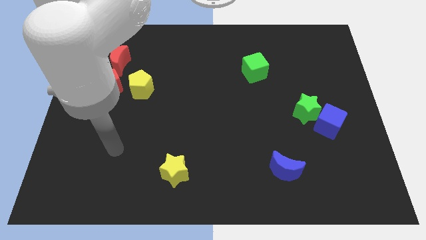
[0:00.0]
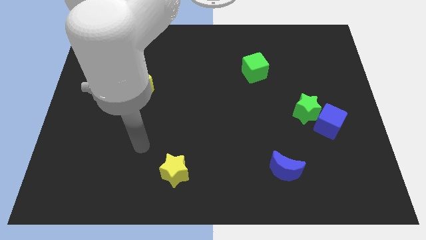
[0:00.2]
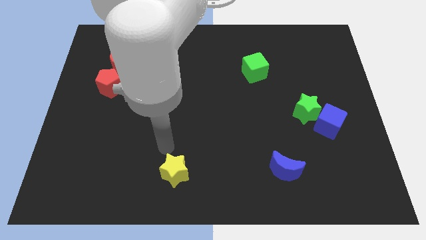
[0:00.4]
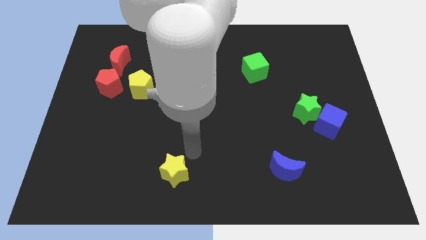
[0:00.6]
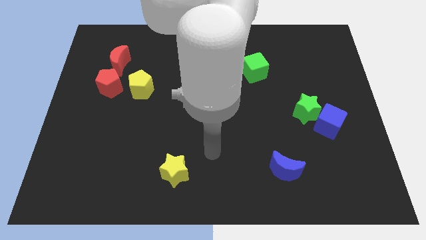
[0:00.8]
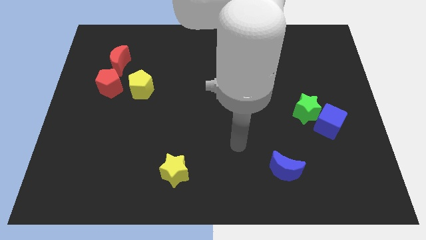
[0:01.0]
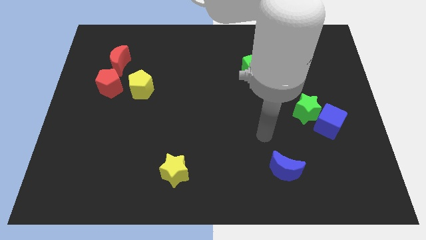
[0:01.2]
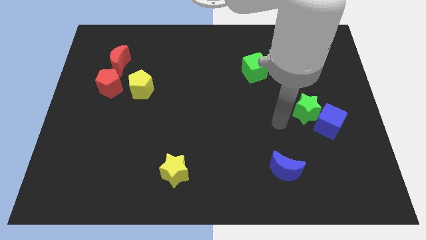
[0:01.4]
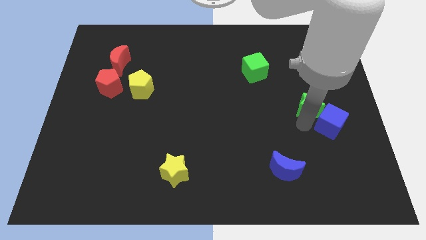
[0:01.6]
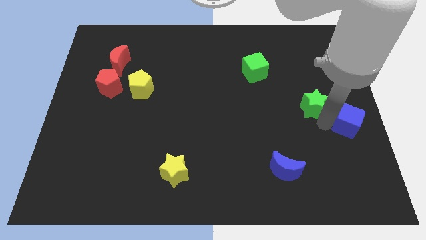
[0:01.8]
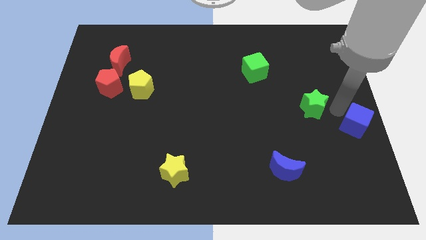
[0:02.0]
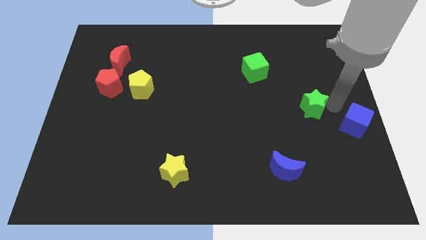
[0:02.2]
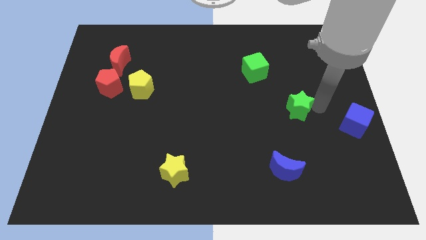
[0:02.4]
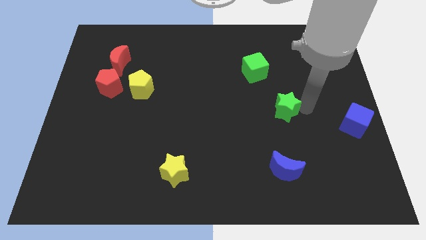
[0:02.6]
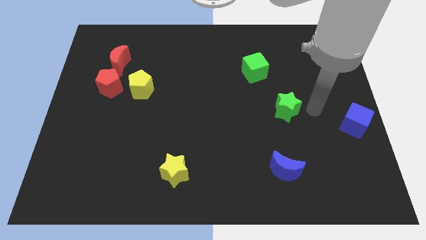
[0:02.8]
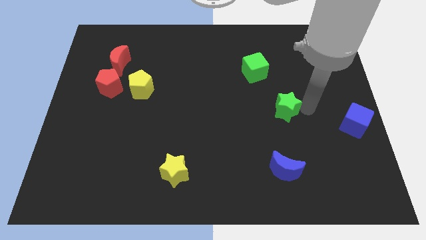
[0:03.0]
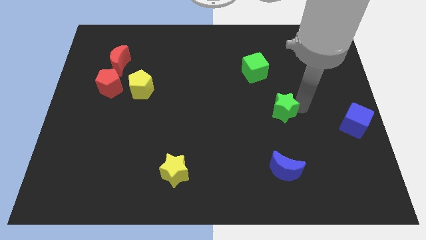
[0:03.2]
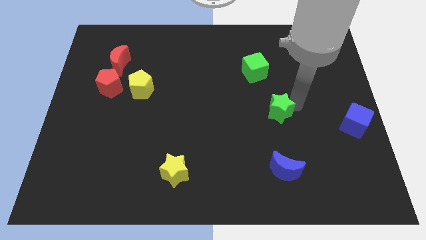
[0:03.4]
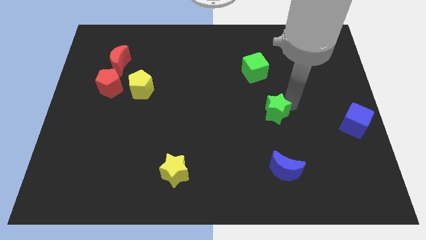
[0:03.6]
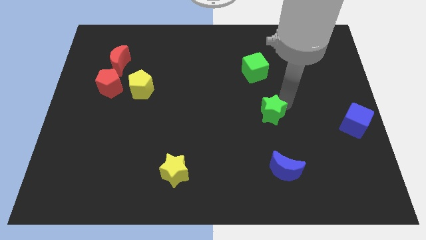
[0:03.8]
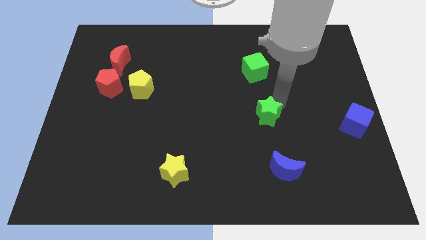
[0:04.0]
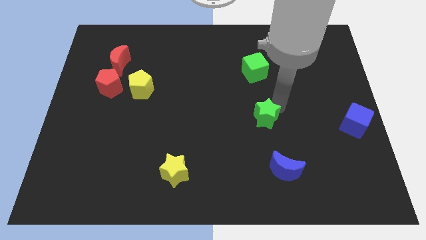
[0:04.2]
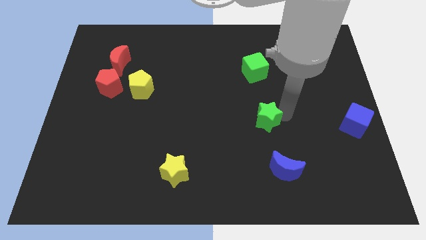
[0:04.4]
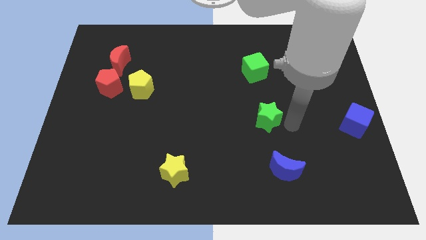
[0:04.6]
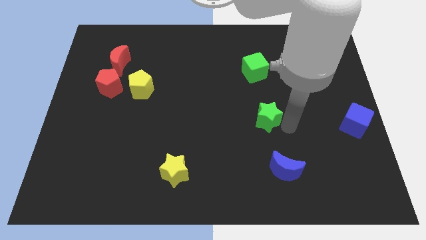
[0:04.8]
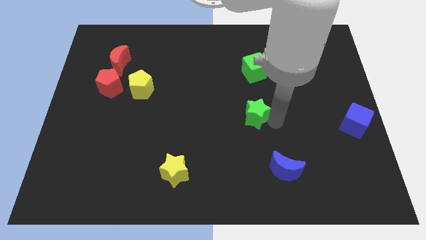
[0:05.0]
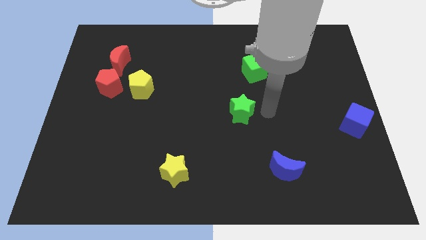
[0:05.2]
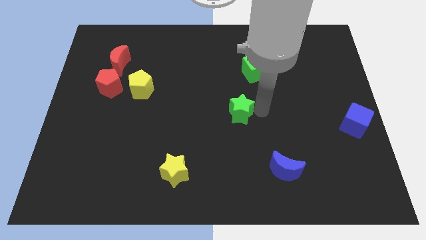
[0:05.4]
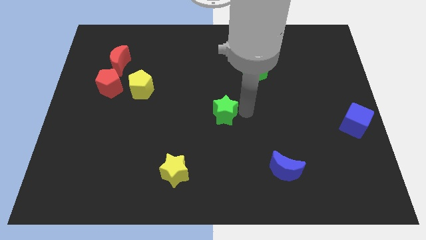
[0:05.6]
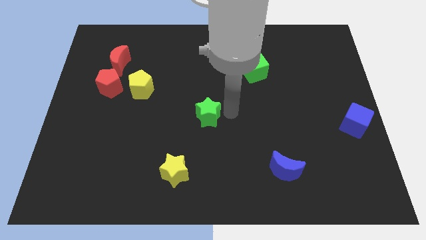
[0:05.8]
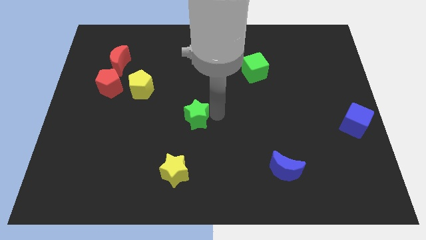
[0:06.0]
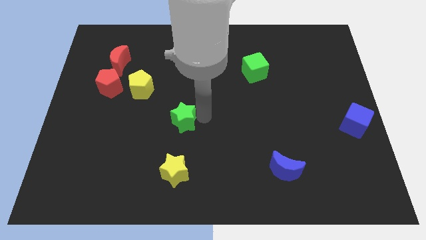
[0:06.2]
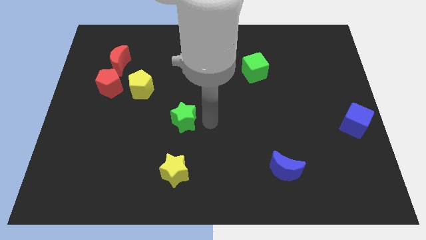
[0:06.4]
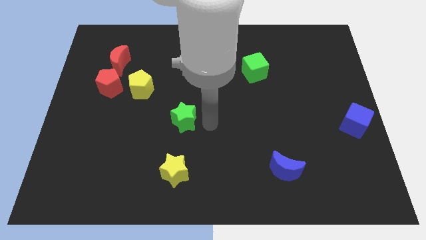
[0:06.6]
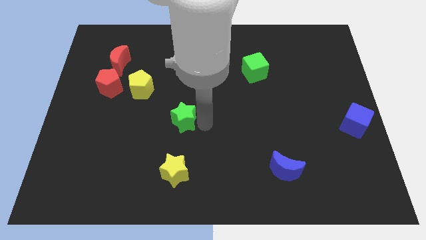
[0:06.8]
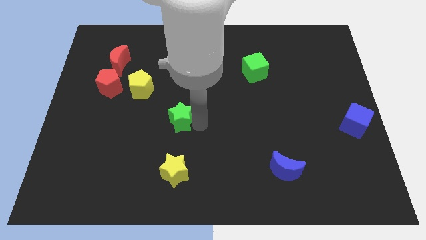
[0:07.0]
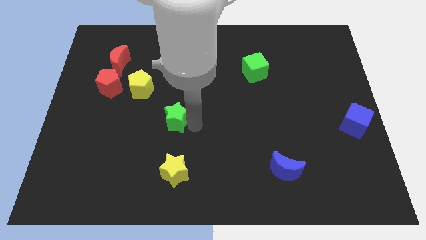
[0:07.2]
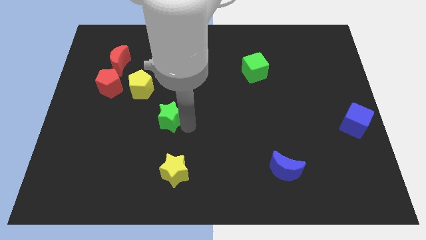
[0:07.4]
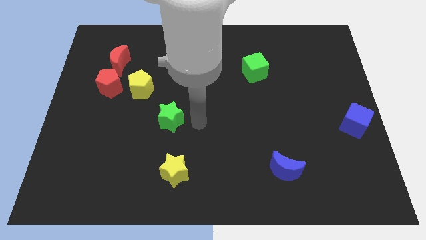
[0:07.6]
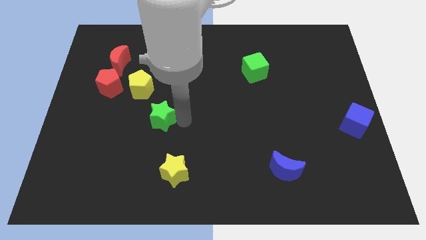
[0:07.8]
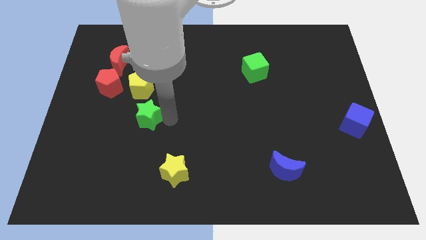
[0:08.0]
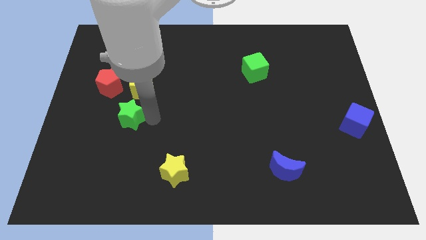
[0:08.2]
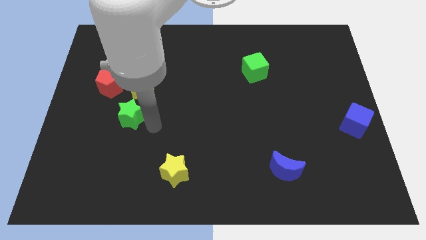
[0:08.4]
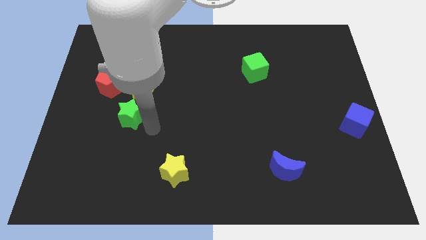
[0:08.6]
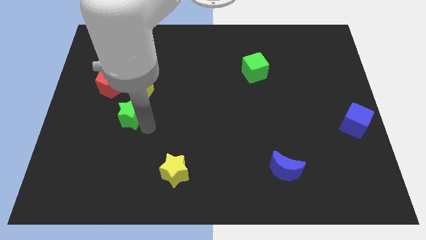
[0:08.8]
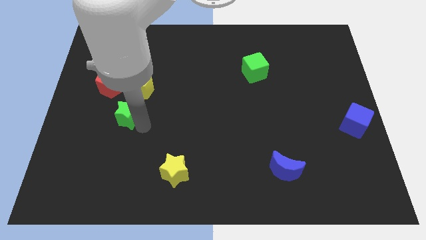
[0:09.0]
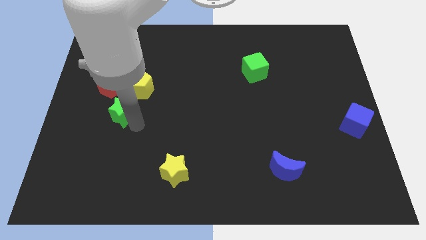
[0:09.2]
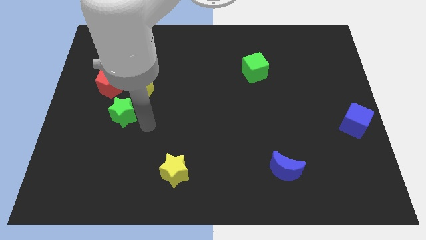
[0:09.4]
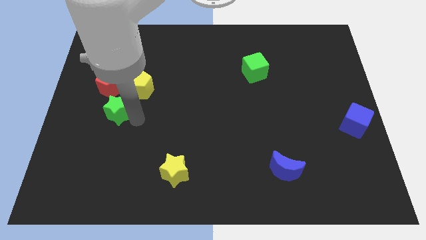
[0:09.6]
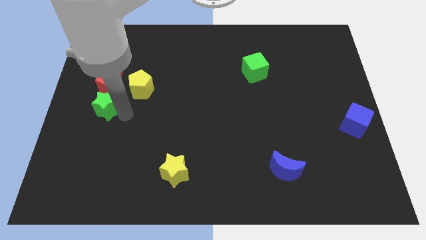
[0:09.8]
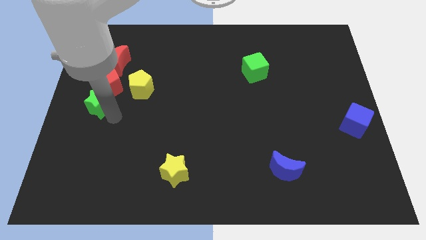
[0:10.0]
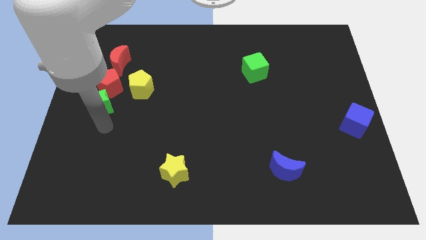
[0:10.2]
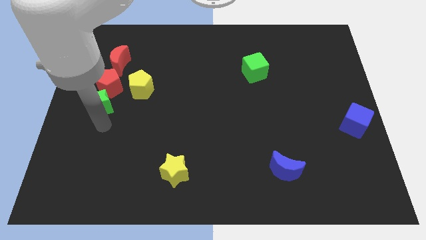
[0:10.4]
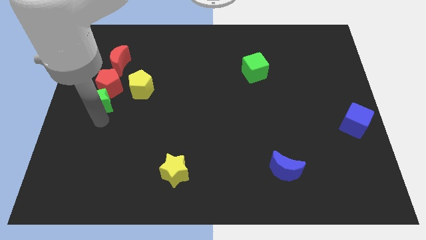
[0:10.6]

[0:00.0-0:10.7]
move the green star to the left of the yellow pentagon

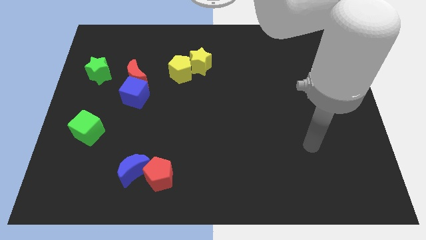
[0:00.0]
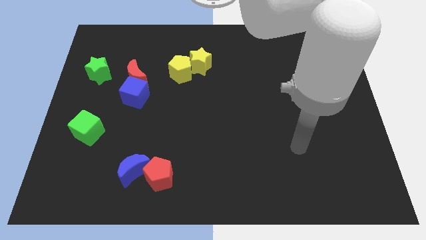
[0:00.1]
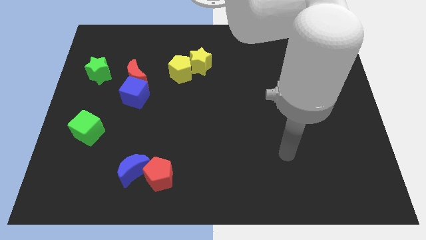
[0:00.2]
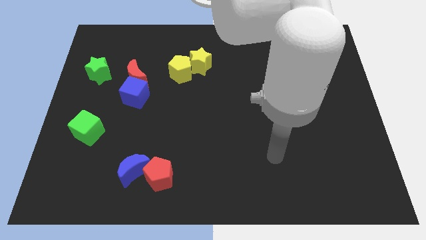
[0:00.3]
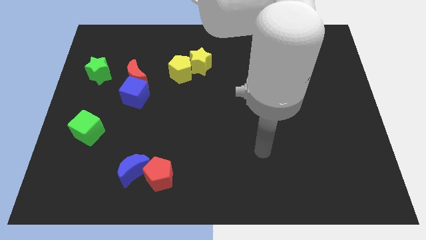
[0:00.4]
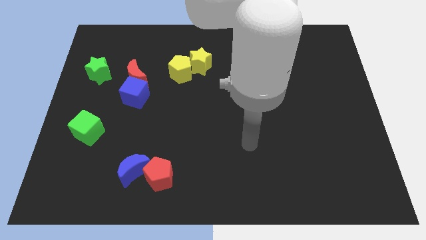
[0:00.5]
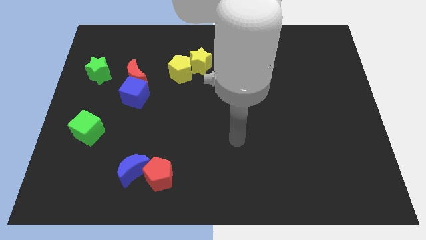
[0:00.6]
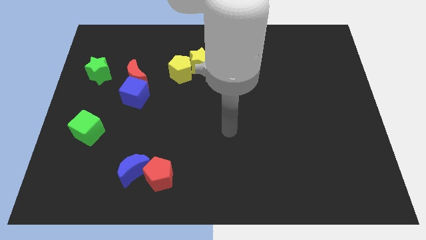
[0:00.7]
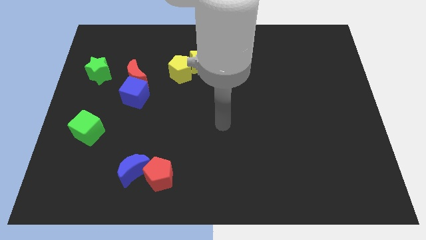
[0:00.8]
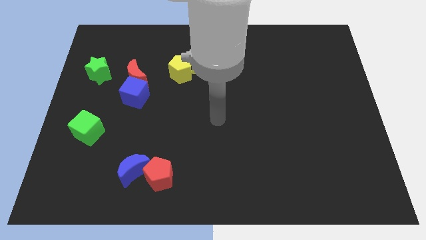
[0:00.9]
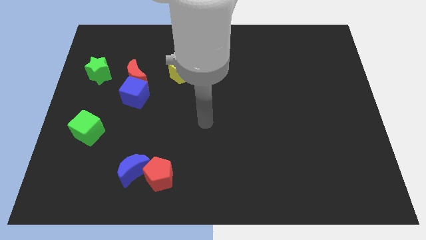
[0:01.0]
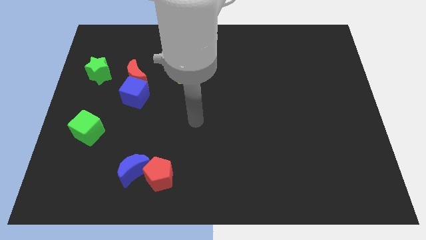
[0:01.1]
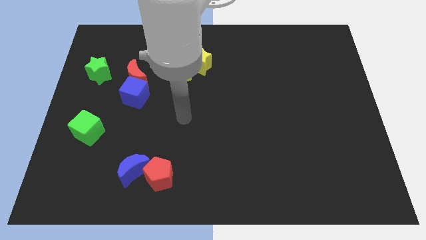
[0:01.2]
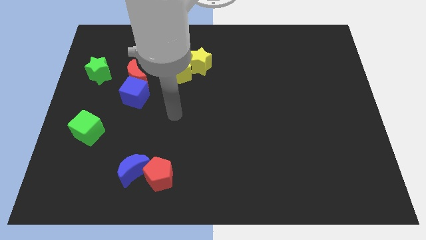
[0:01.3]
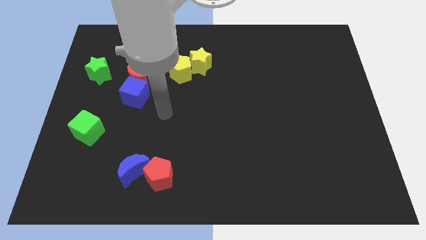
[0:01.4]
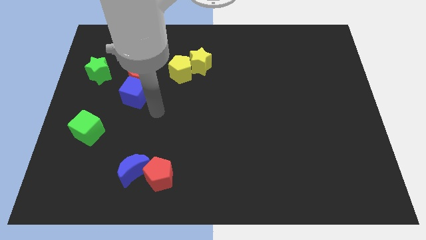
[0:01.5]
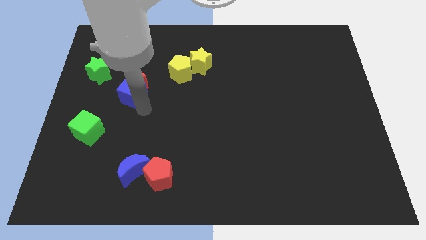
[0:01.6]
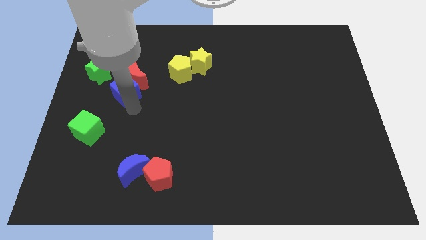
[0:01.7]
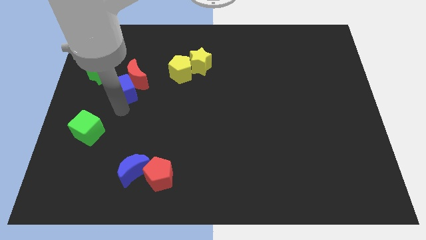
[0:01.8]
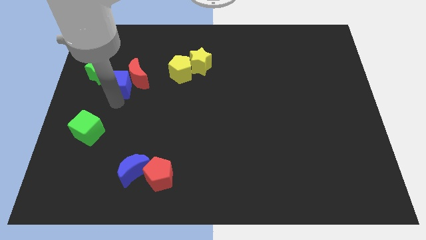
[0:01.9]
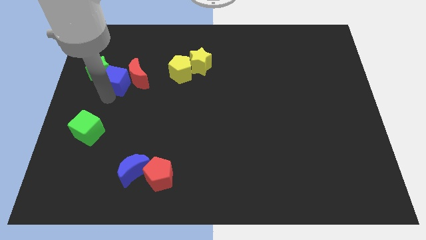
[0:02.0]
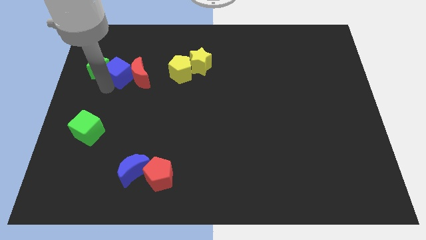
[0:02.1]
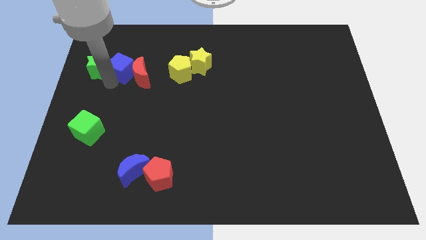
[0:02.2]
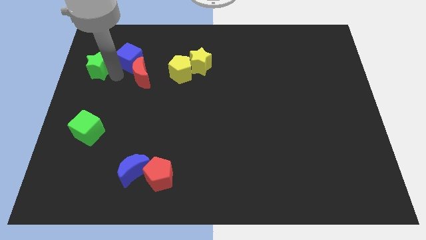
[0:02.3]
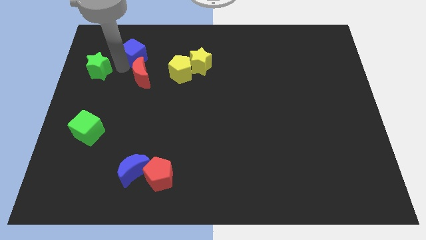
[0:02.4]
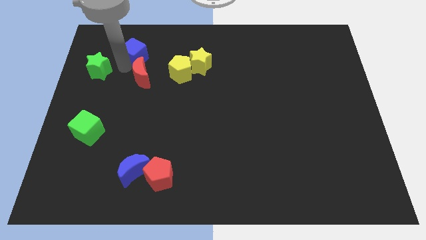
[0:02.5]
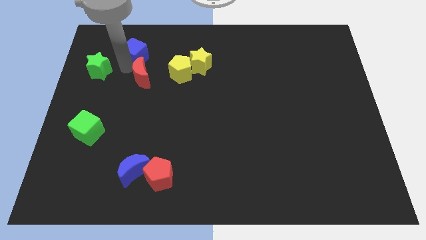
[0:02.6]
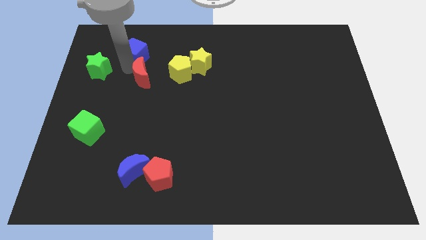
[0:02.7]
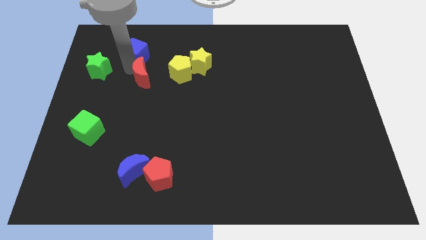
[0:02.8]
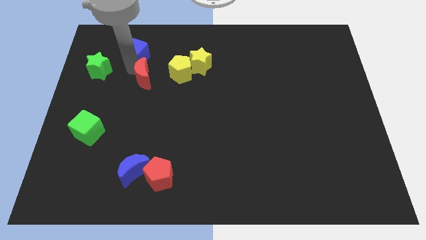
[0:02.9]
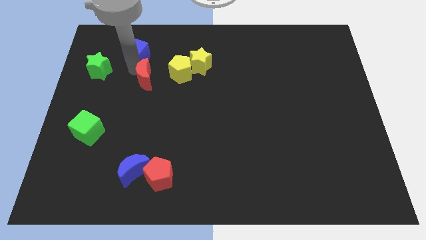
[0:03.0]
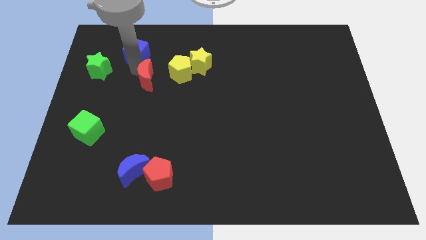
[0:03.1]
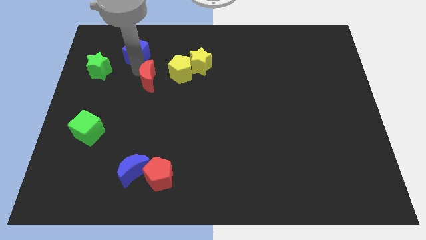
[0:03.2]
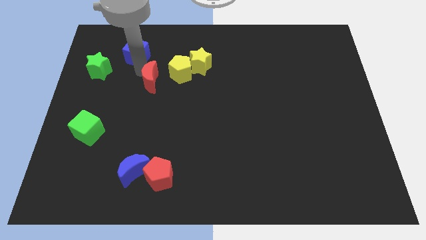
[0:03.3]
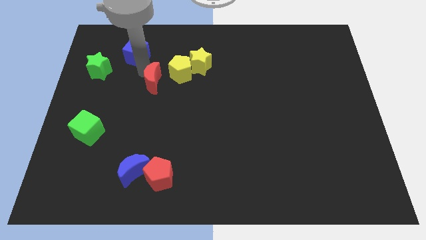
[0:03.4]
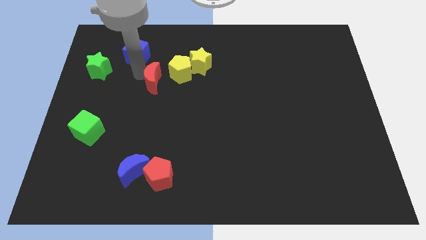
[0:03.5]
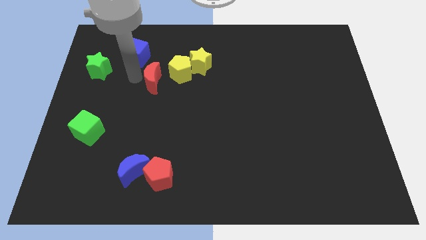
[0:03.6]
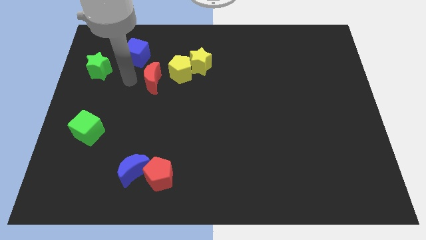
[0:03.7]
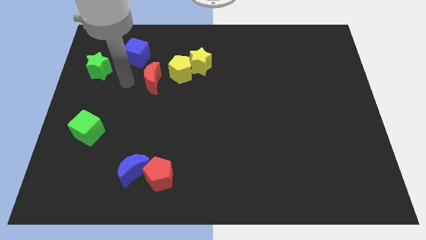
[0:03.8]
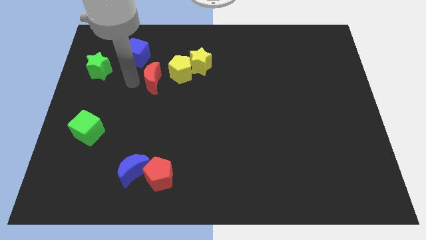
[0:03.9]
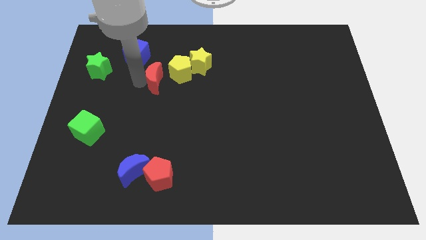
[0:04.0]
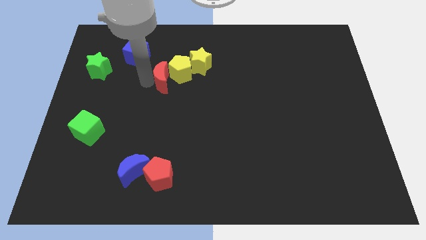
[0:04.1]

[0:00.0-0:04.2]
slide the red moon to the bottom left side of the yellow star
